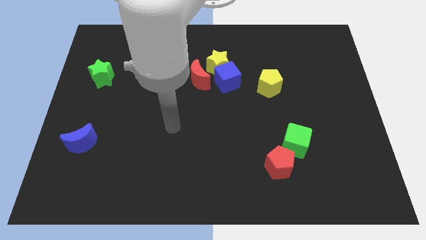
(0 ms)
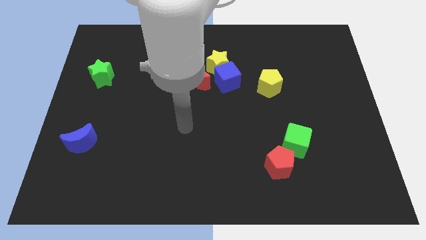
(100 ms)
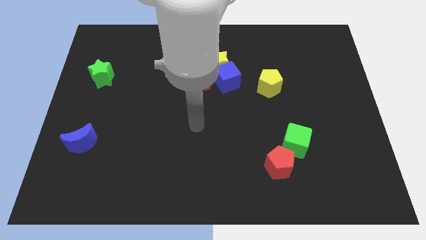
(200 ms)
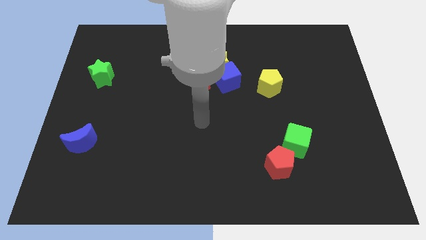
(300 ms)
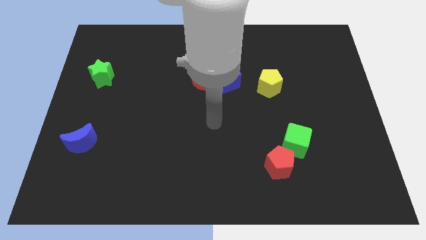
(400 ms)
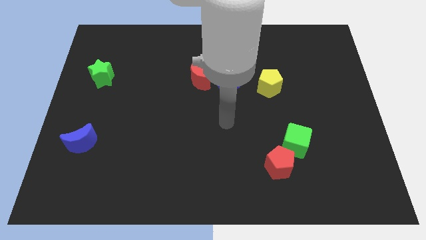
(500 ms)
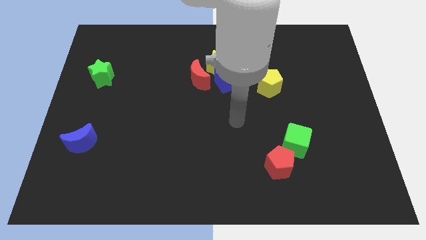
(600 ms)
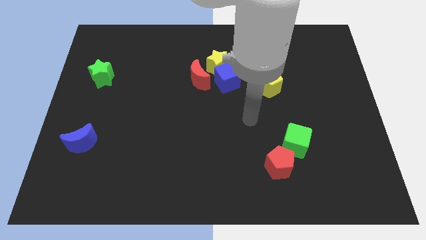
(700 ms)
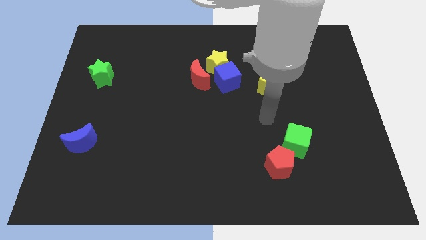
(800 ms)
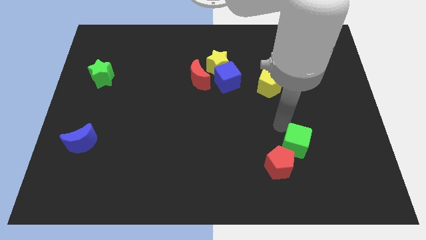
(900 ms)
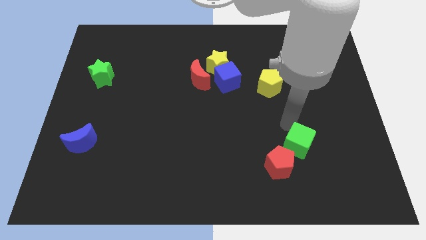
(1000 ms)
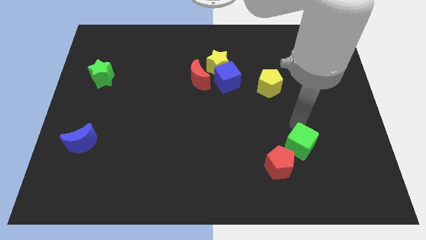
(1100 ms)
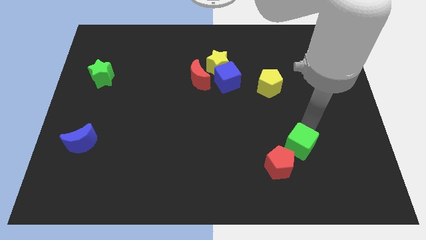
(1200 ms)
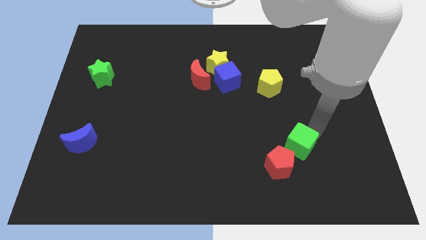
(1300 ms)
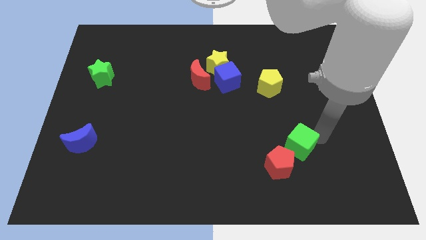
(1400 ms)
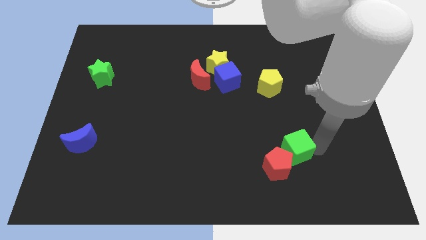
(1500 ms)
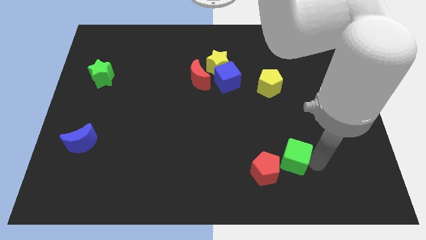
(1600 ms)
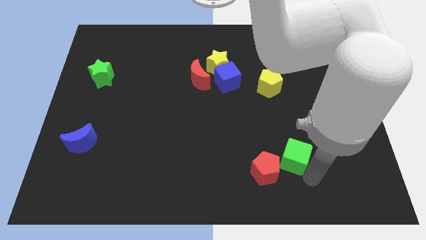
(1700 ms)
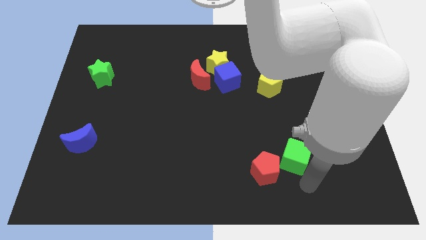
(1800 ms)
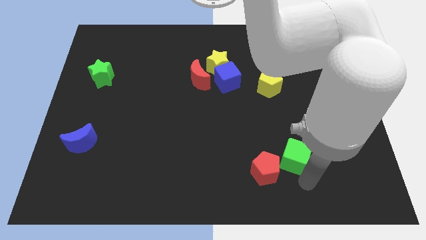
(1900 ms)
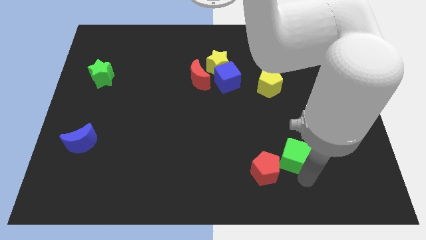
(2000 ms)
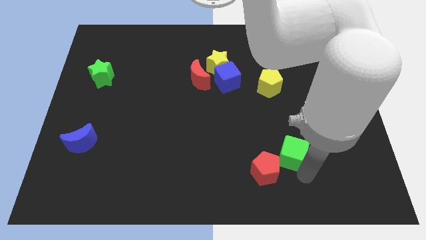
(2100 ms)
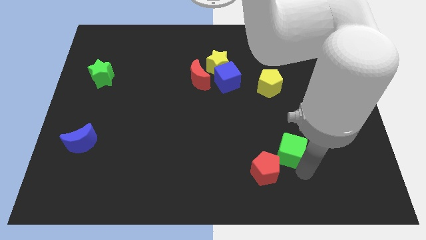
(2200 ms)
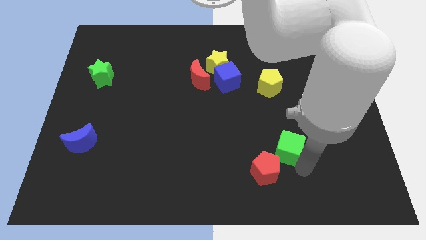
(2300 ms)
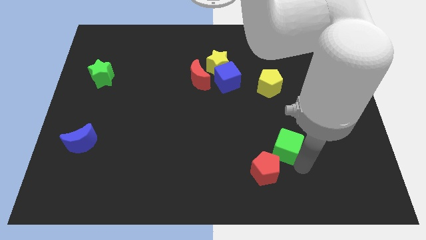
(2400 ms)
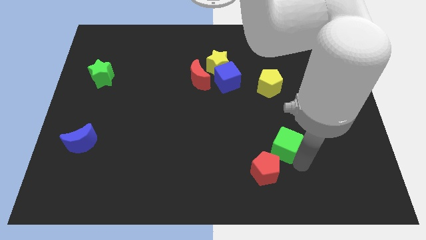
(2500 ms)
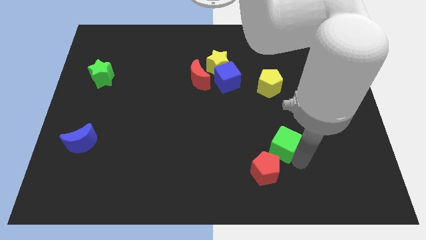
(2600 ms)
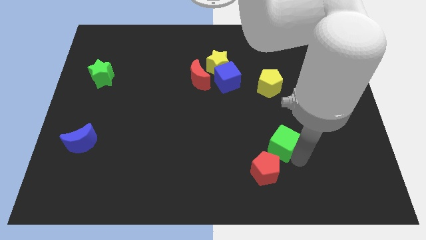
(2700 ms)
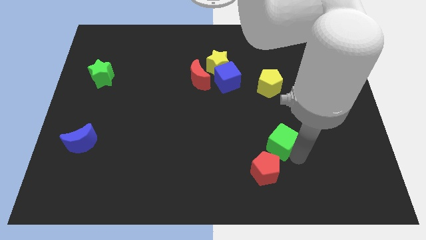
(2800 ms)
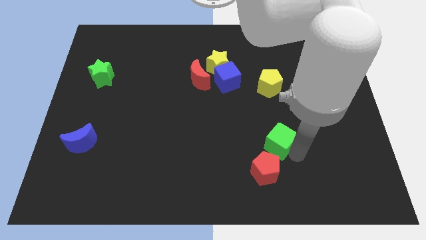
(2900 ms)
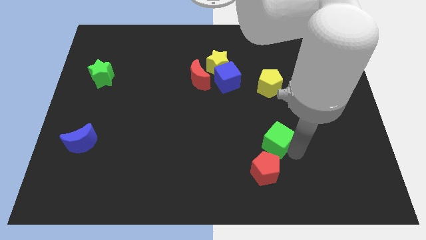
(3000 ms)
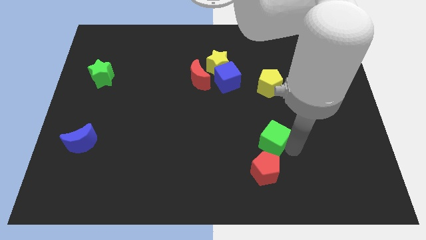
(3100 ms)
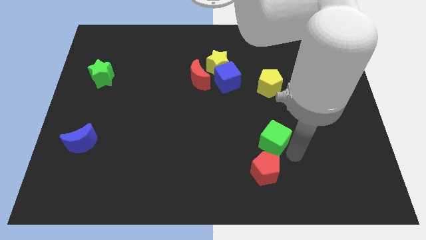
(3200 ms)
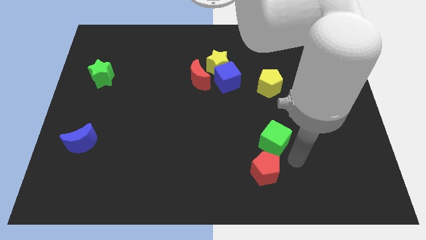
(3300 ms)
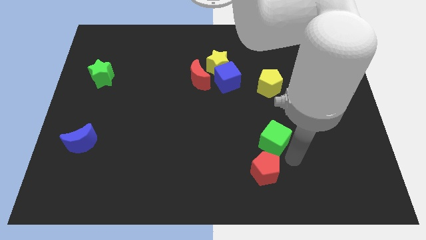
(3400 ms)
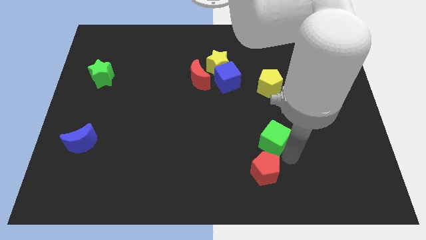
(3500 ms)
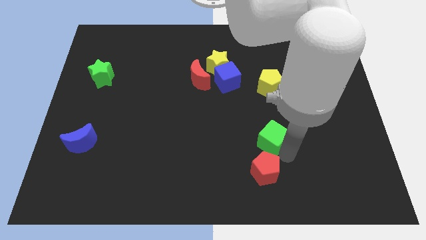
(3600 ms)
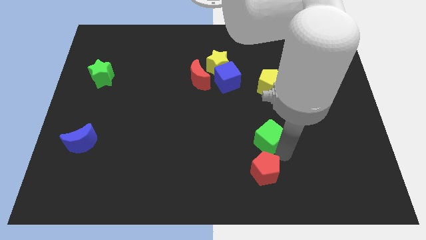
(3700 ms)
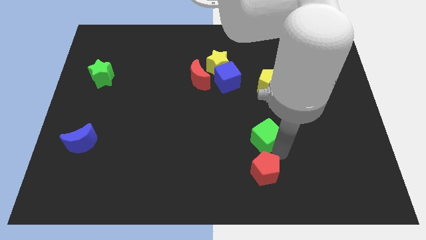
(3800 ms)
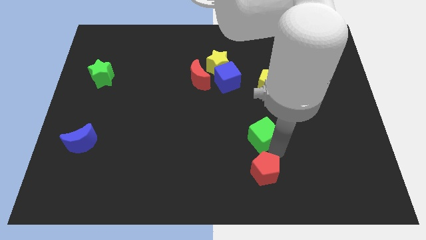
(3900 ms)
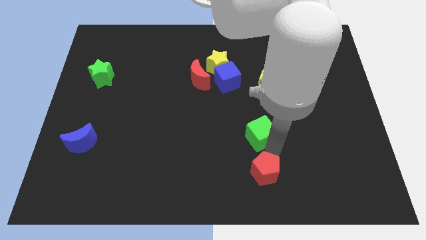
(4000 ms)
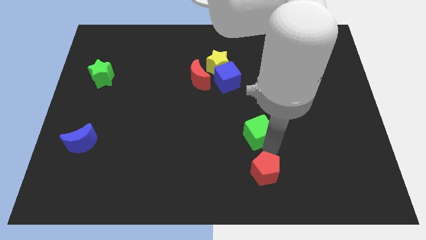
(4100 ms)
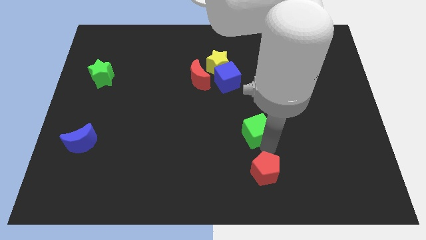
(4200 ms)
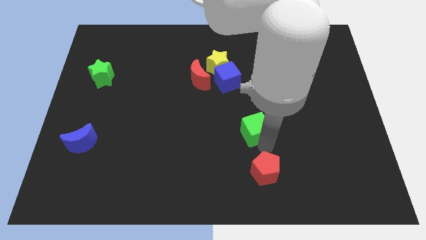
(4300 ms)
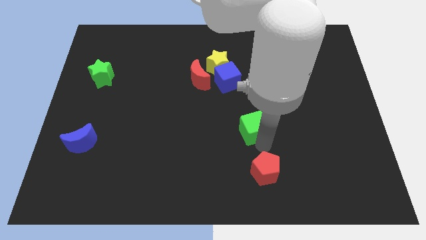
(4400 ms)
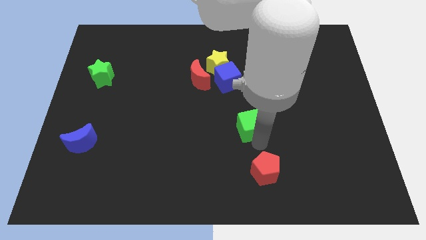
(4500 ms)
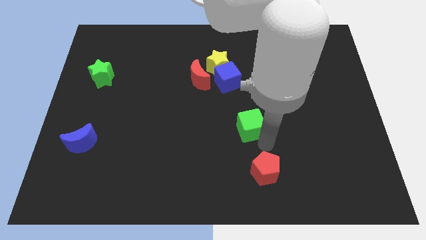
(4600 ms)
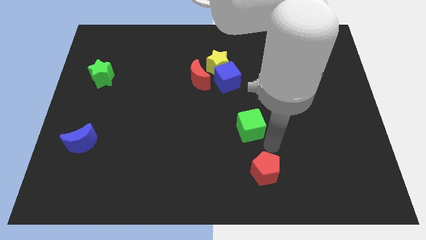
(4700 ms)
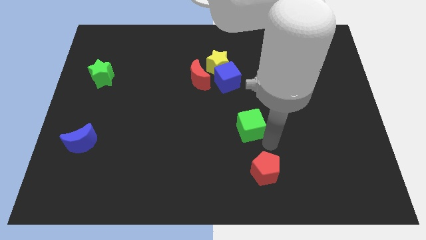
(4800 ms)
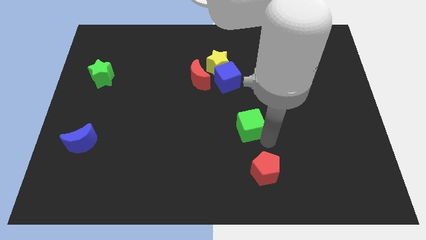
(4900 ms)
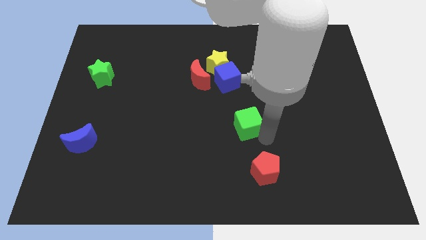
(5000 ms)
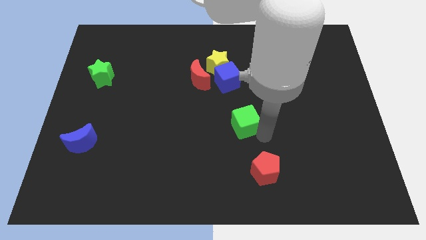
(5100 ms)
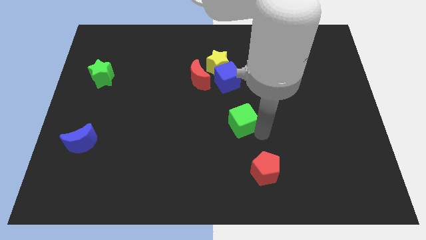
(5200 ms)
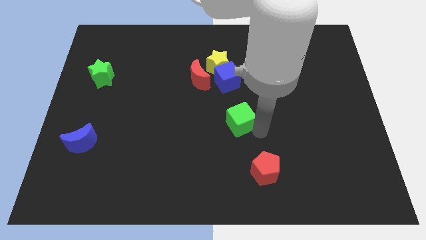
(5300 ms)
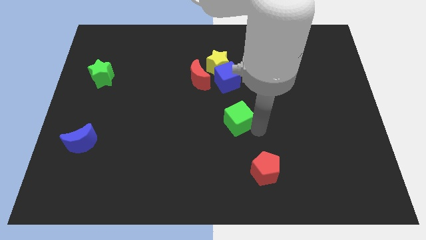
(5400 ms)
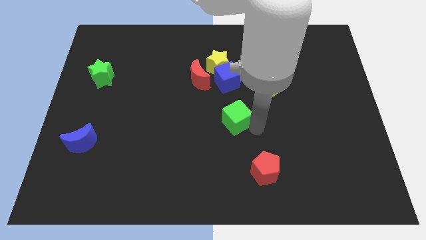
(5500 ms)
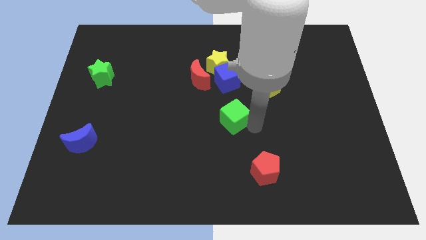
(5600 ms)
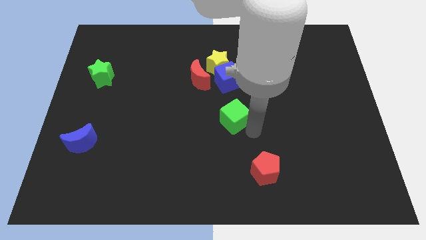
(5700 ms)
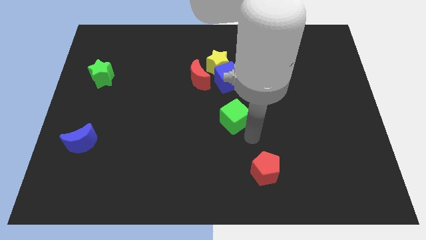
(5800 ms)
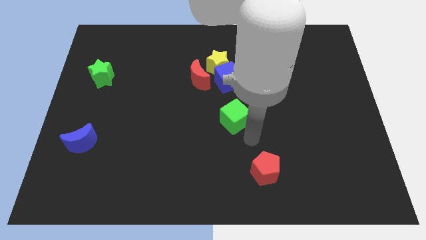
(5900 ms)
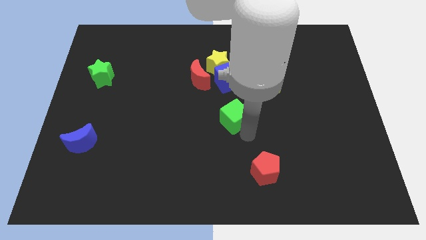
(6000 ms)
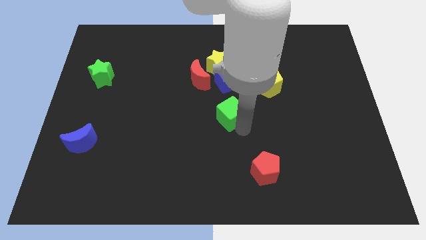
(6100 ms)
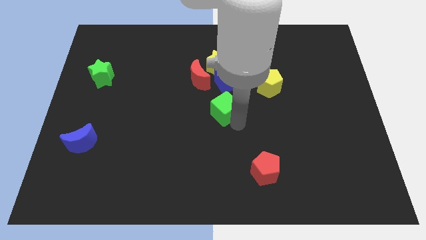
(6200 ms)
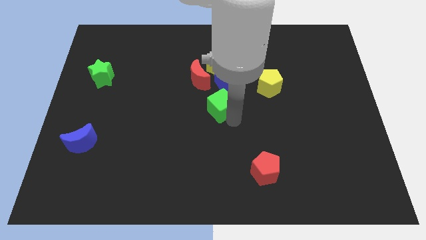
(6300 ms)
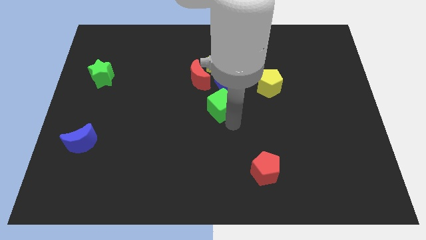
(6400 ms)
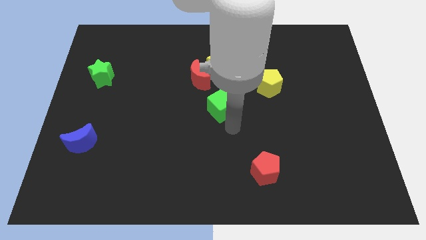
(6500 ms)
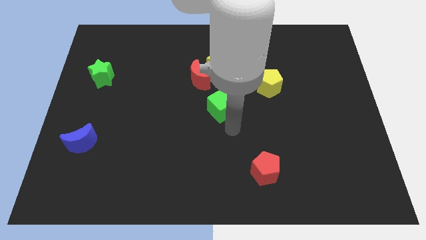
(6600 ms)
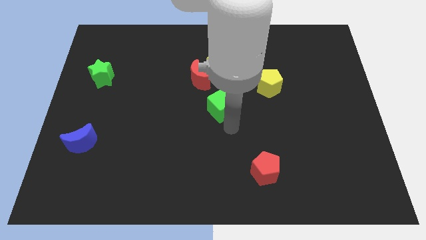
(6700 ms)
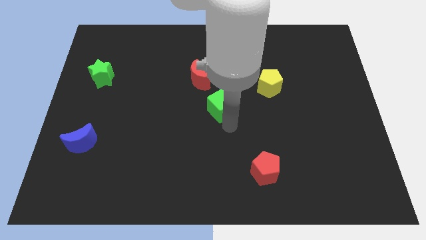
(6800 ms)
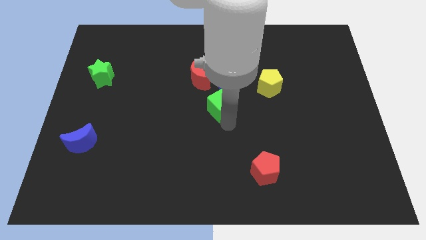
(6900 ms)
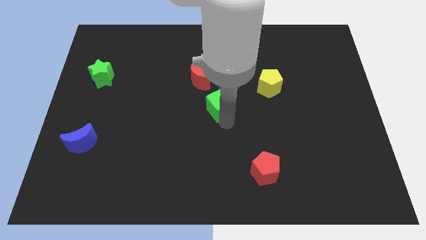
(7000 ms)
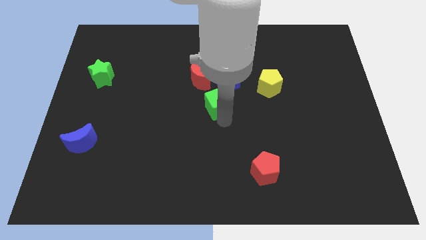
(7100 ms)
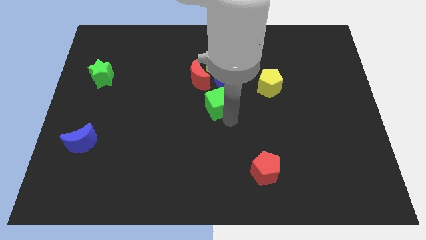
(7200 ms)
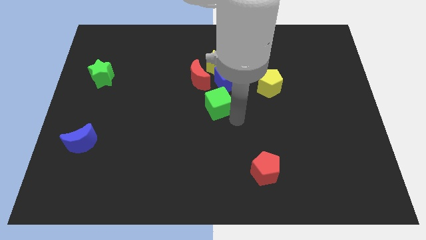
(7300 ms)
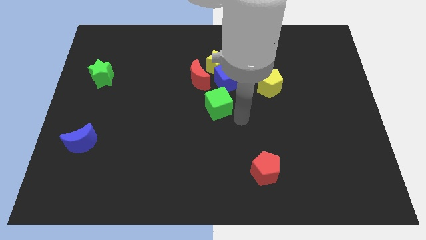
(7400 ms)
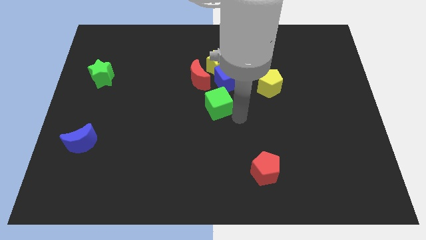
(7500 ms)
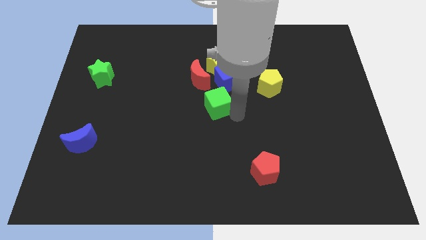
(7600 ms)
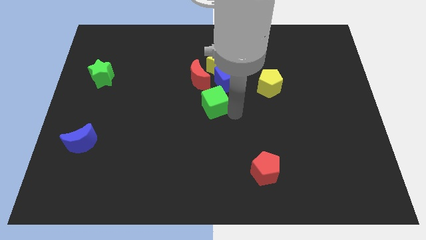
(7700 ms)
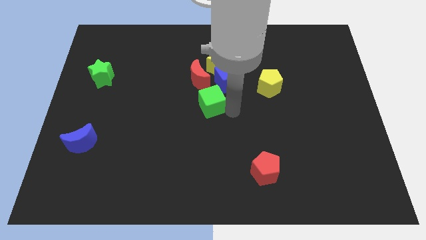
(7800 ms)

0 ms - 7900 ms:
push the green cube upwards and to the left diagonally
